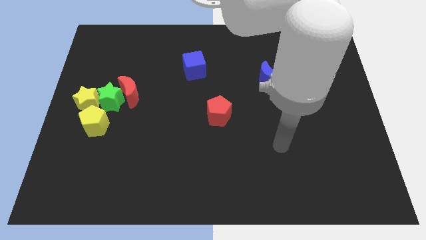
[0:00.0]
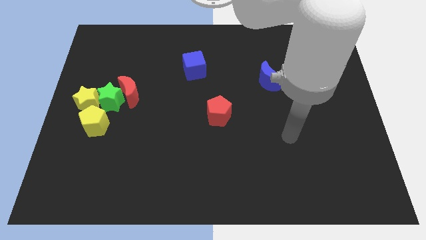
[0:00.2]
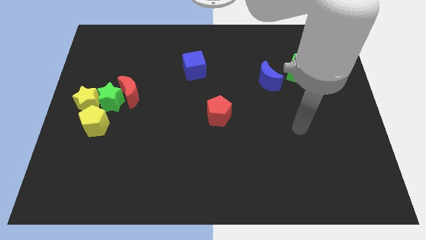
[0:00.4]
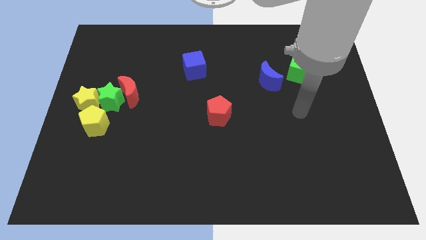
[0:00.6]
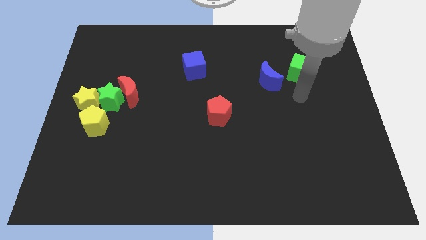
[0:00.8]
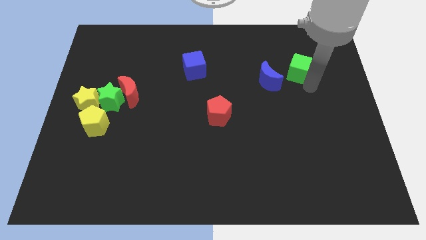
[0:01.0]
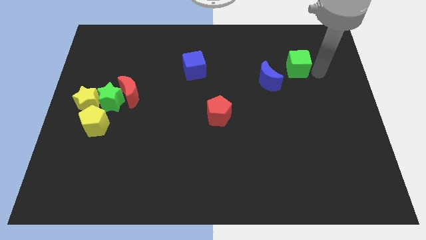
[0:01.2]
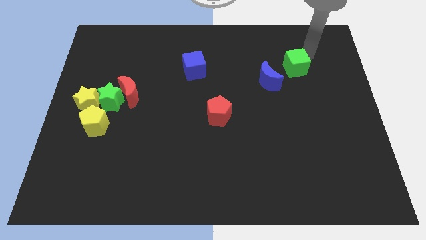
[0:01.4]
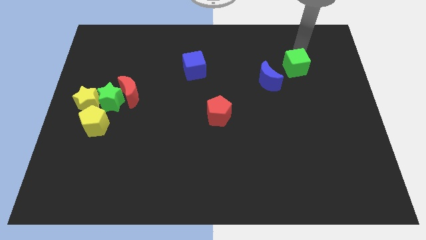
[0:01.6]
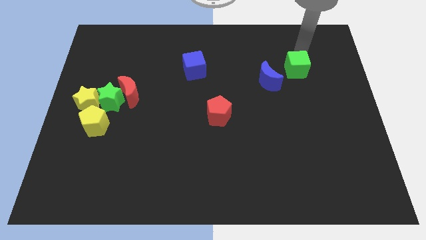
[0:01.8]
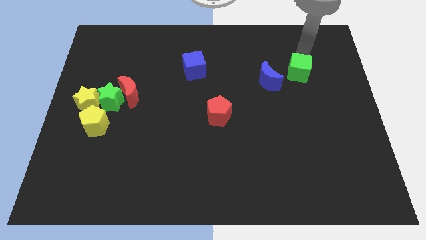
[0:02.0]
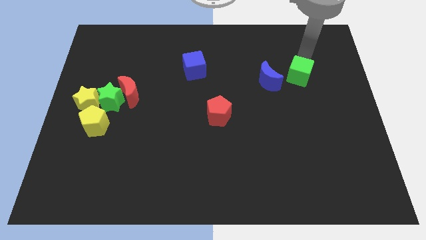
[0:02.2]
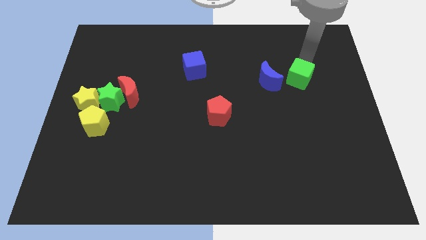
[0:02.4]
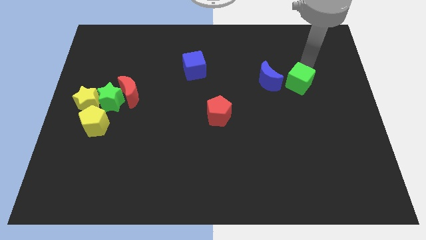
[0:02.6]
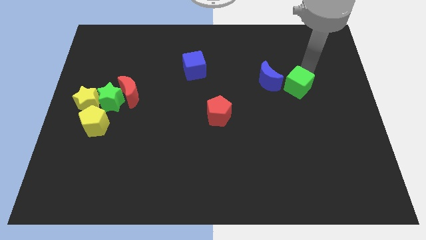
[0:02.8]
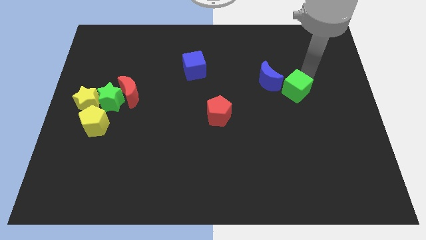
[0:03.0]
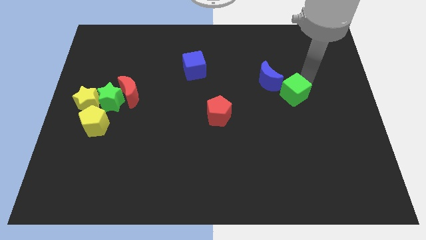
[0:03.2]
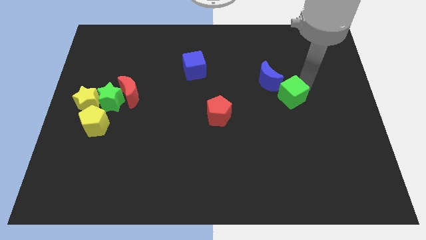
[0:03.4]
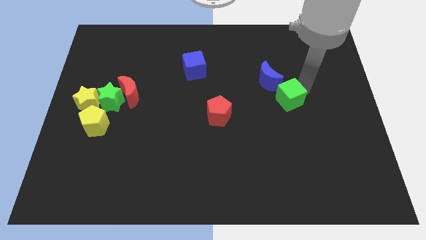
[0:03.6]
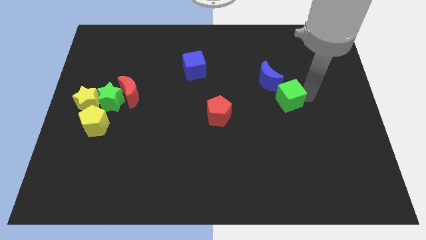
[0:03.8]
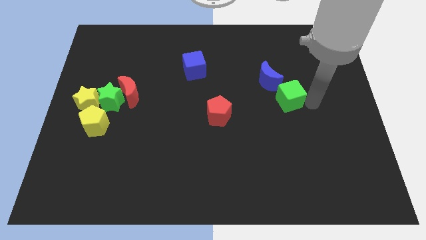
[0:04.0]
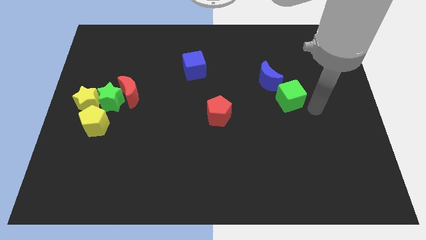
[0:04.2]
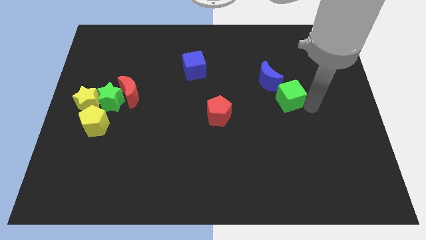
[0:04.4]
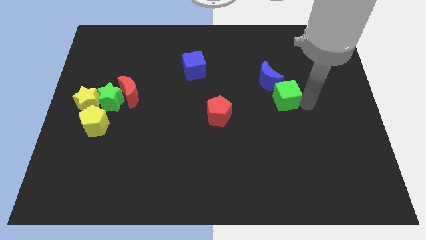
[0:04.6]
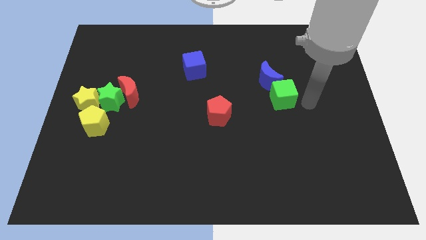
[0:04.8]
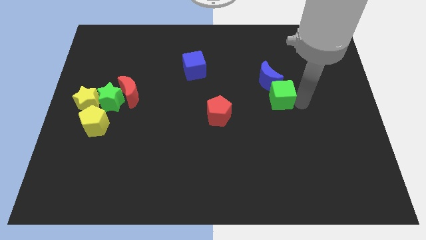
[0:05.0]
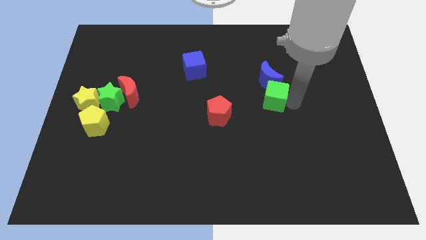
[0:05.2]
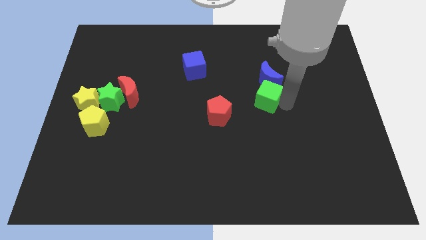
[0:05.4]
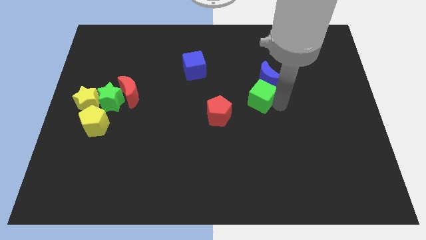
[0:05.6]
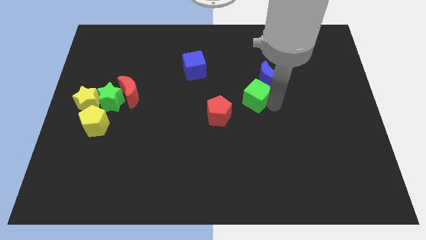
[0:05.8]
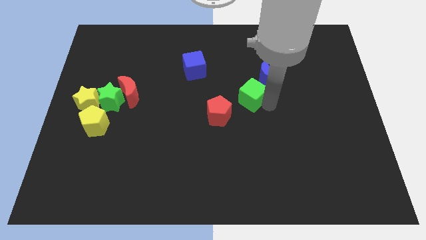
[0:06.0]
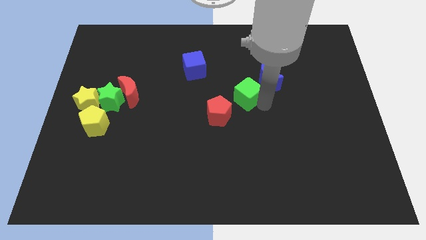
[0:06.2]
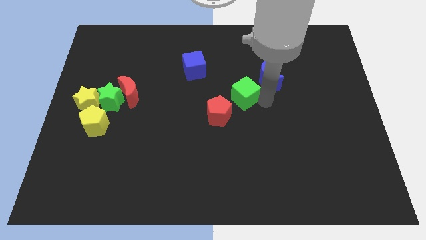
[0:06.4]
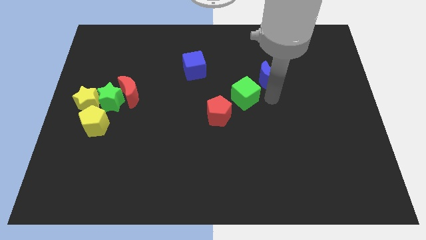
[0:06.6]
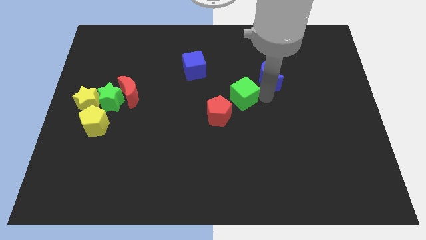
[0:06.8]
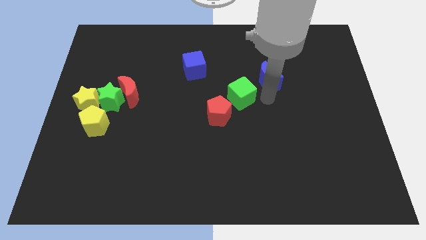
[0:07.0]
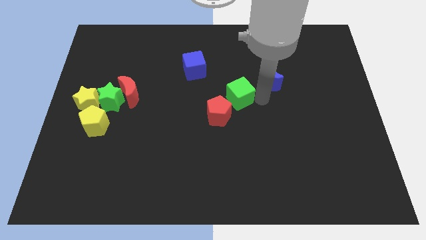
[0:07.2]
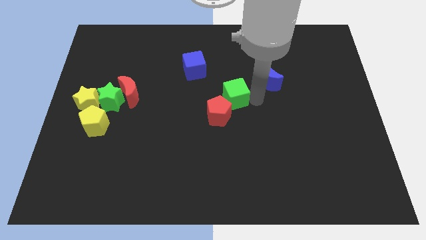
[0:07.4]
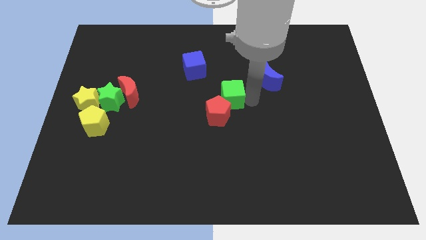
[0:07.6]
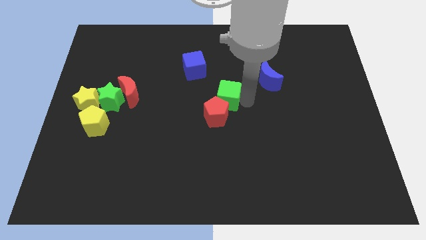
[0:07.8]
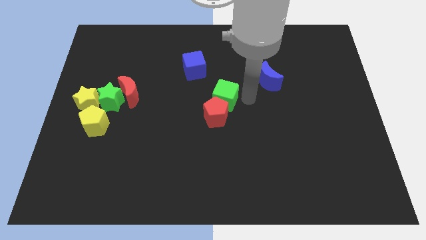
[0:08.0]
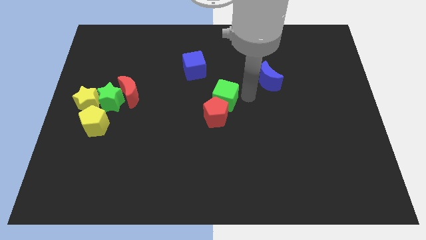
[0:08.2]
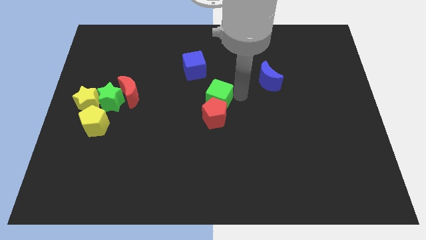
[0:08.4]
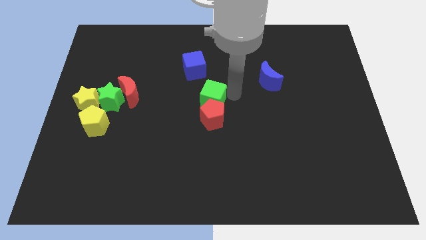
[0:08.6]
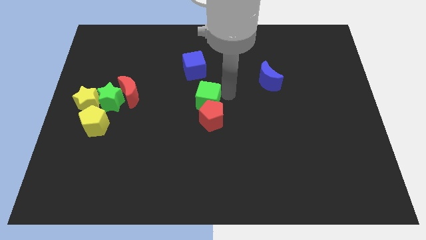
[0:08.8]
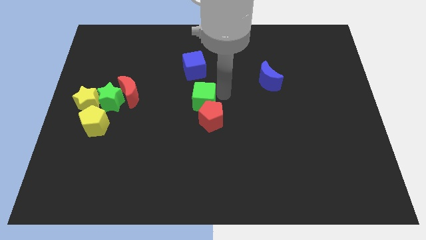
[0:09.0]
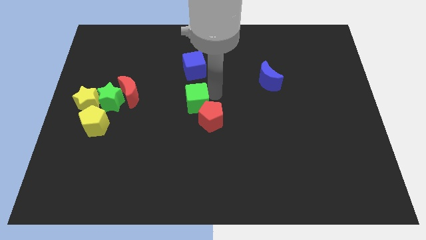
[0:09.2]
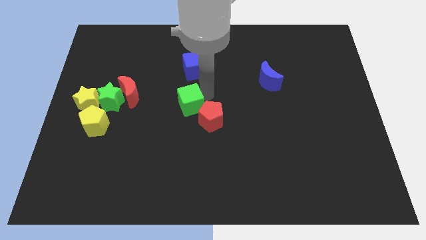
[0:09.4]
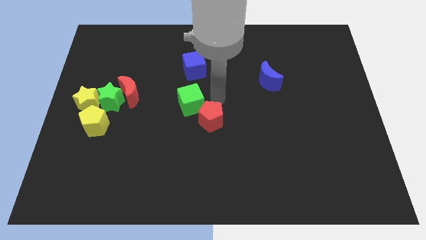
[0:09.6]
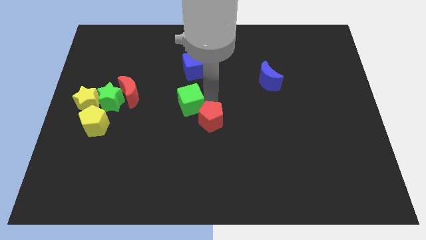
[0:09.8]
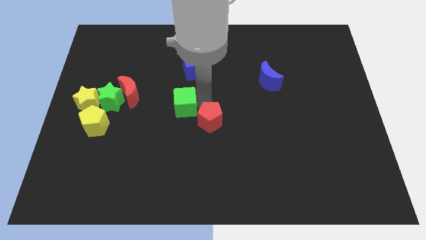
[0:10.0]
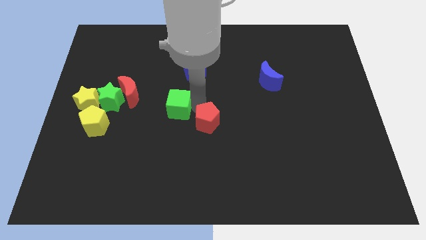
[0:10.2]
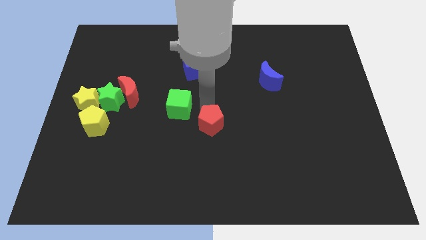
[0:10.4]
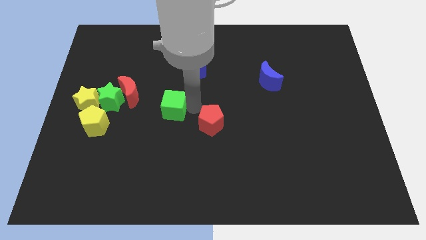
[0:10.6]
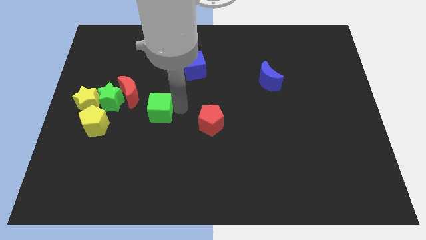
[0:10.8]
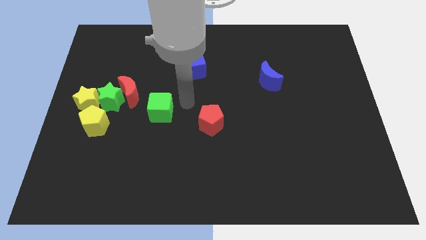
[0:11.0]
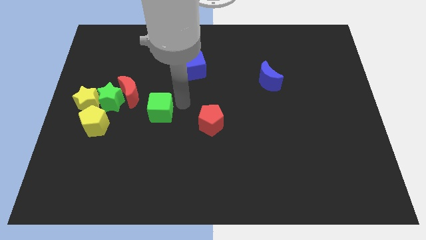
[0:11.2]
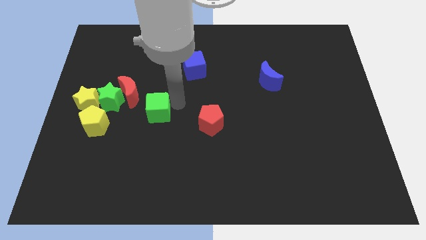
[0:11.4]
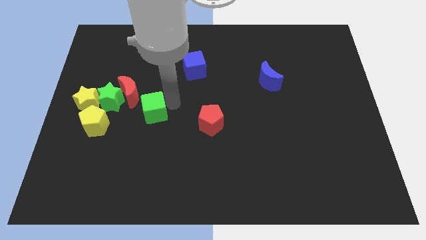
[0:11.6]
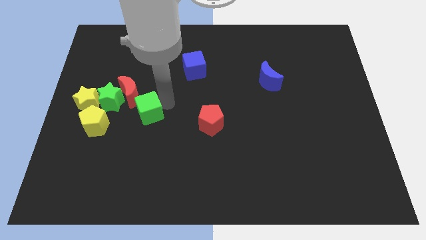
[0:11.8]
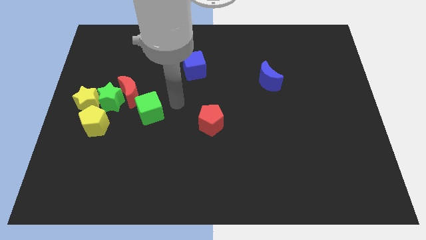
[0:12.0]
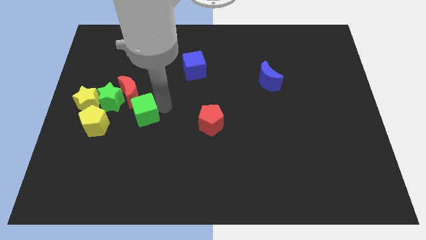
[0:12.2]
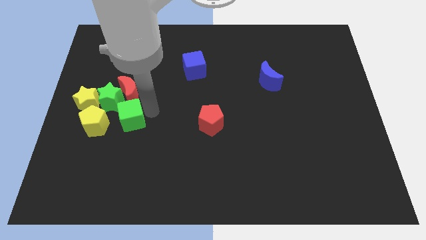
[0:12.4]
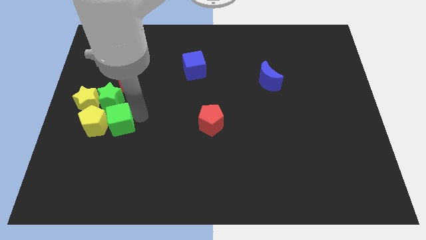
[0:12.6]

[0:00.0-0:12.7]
move the green cube towards the yellow pentagon
